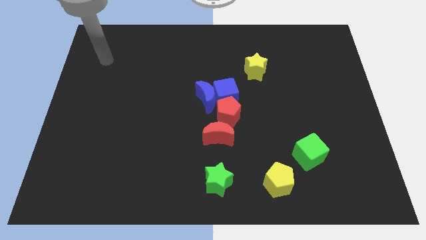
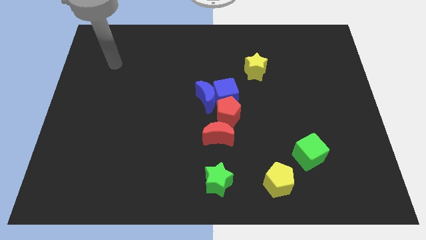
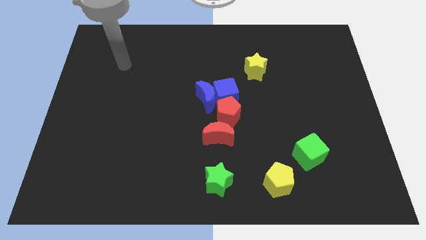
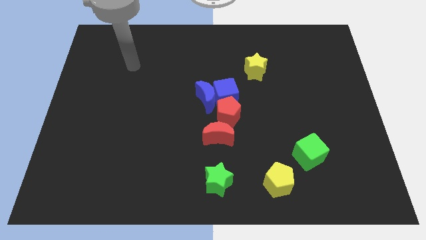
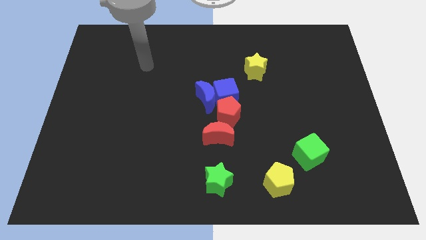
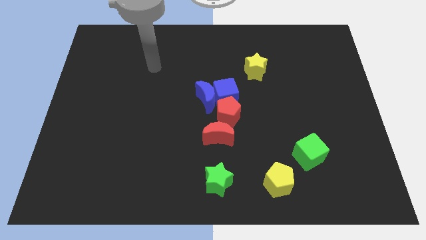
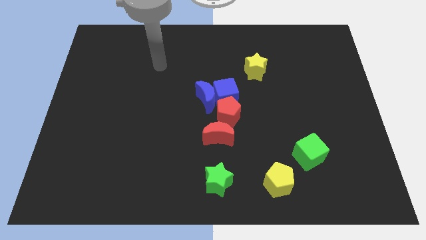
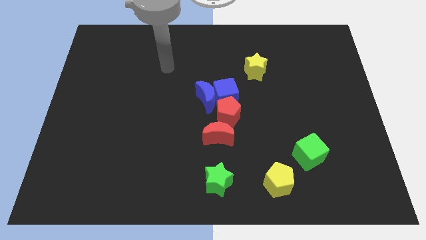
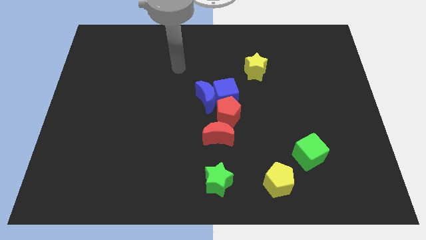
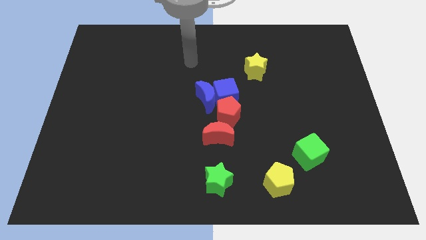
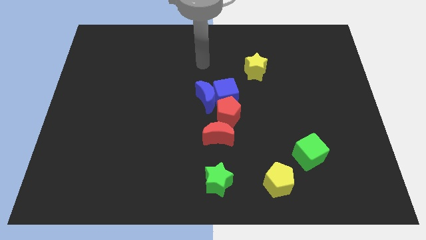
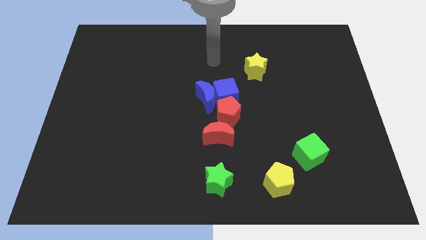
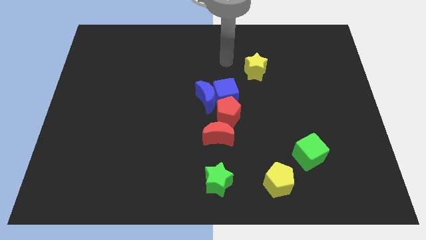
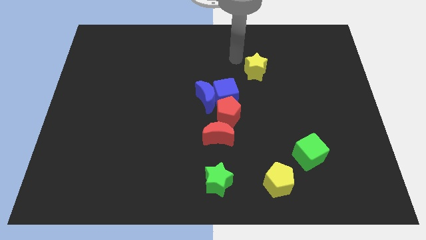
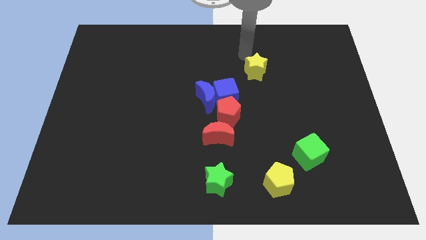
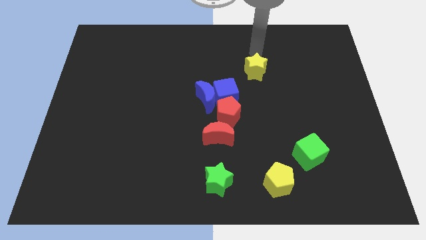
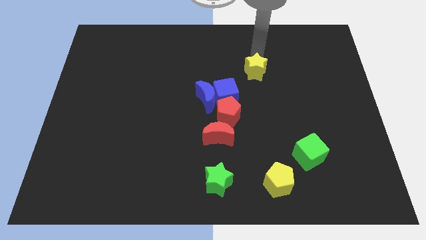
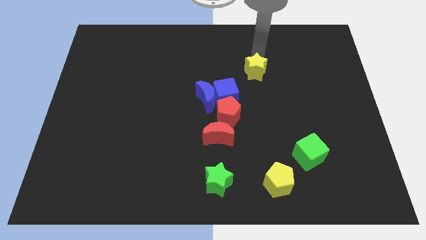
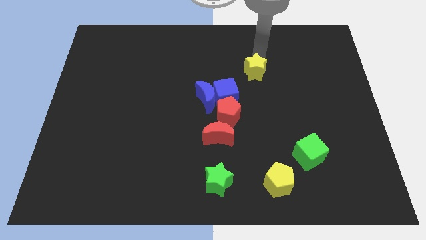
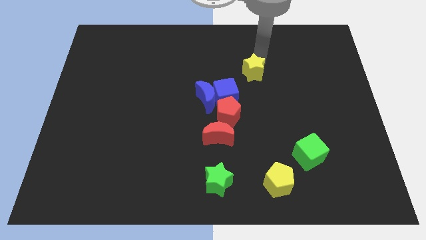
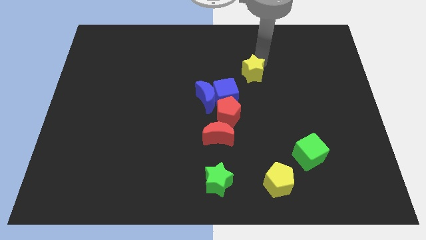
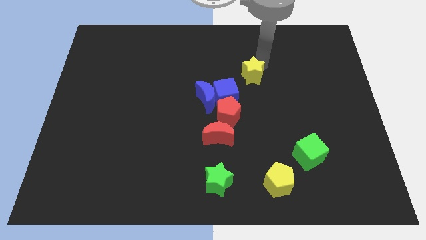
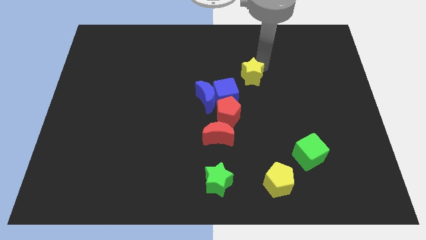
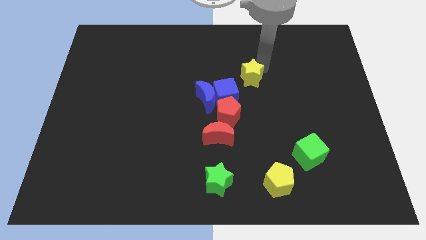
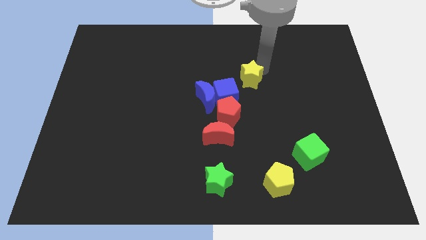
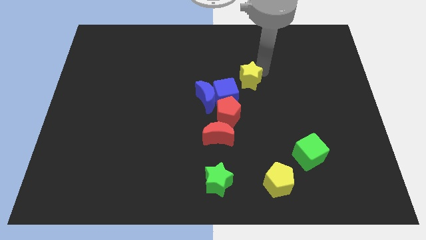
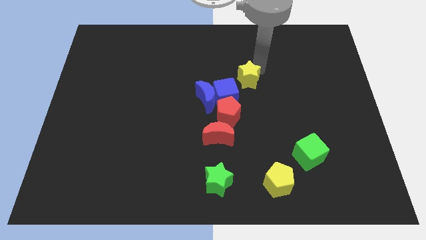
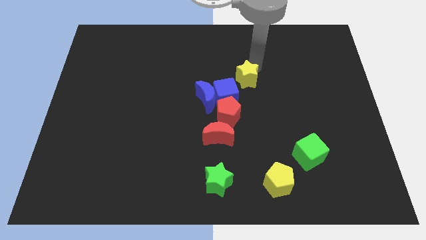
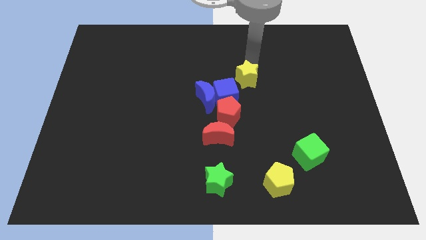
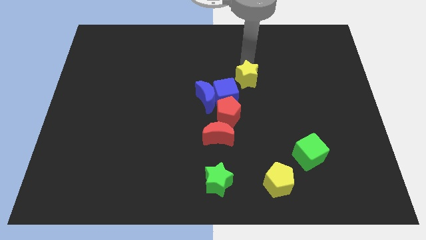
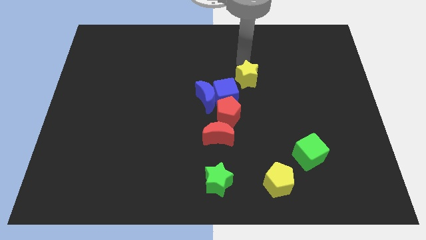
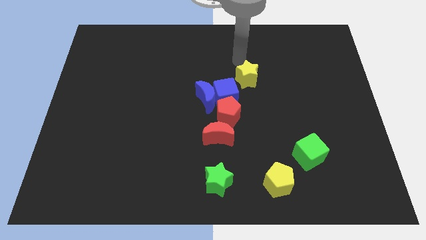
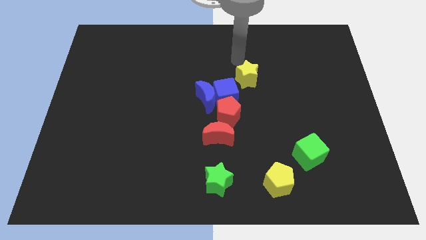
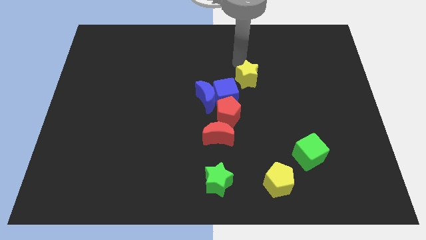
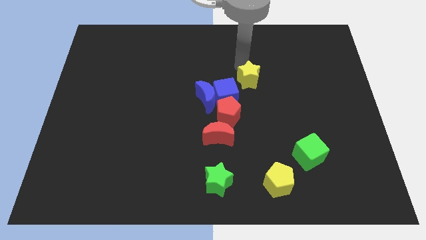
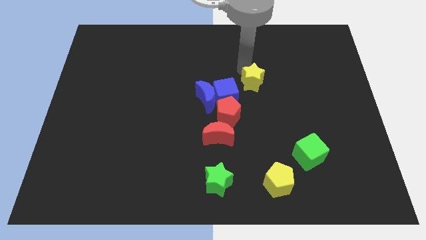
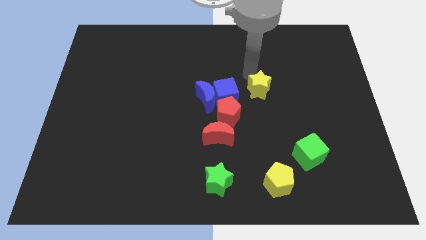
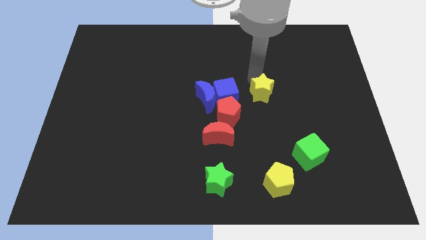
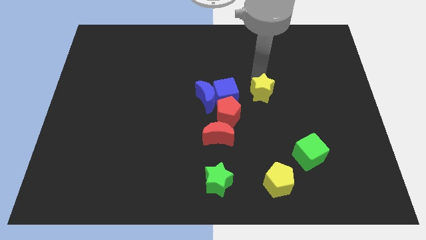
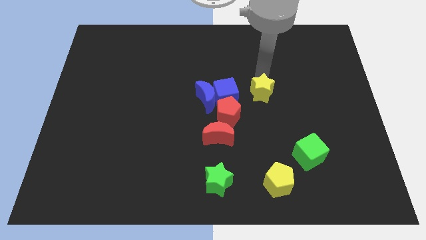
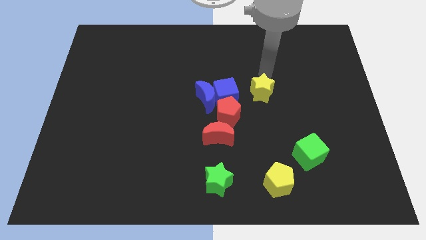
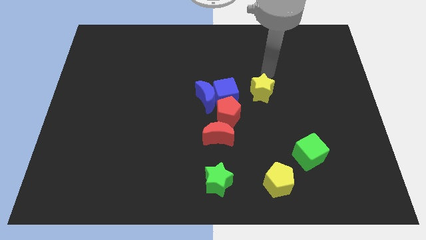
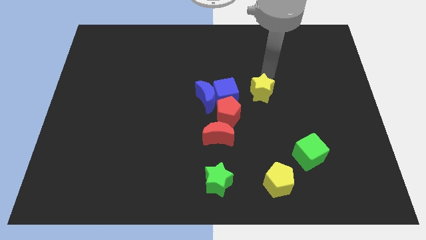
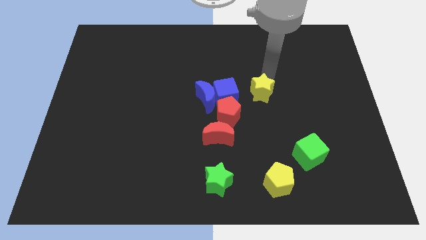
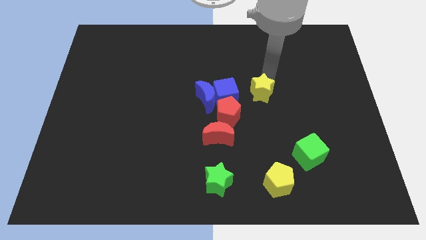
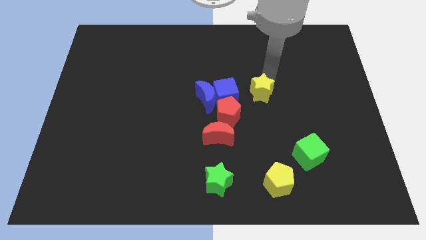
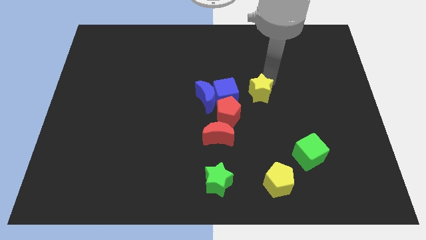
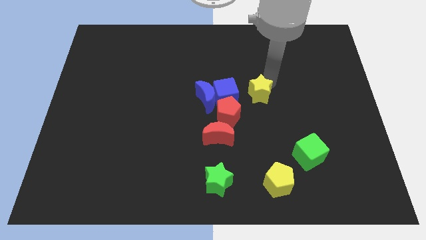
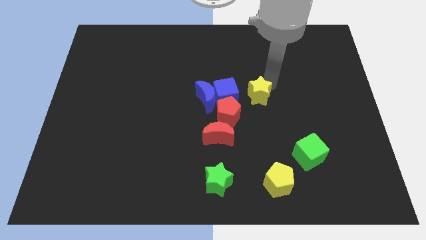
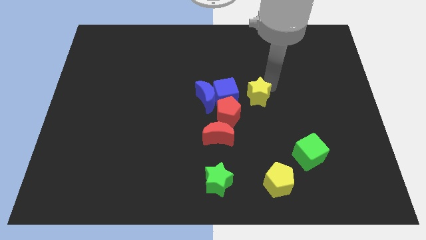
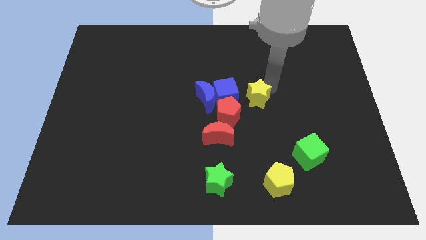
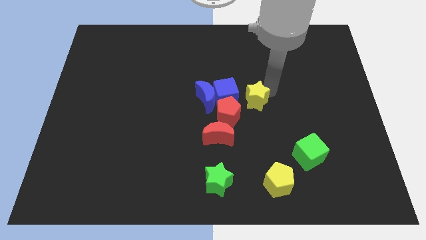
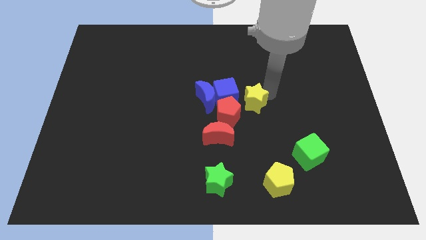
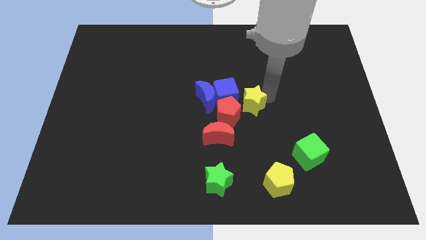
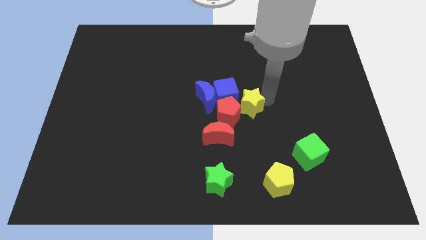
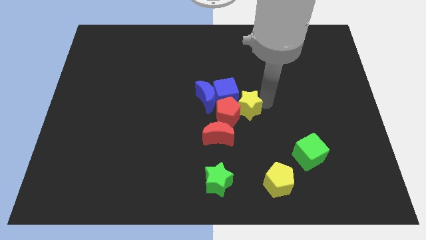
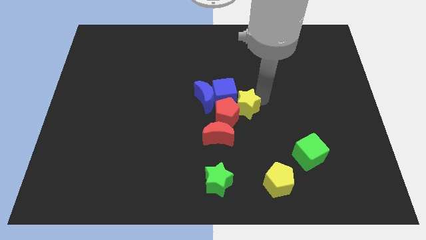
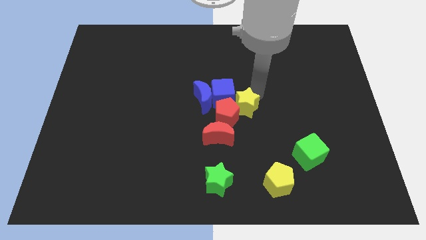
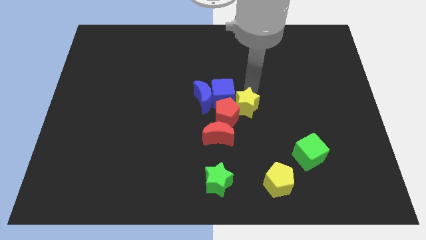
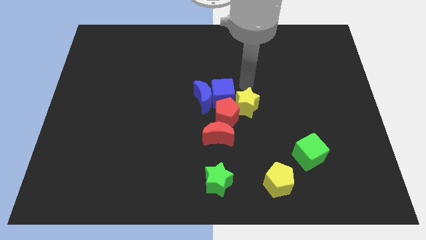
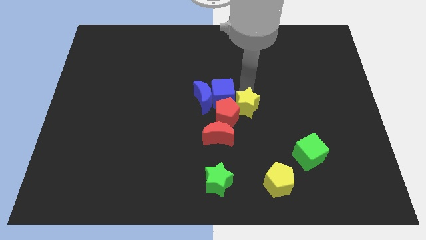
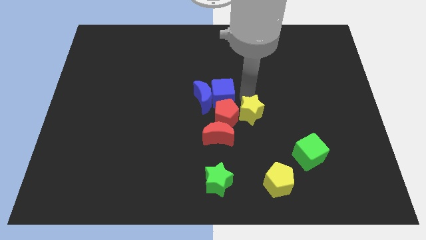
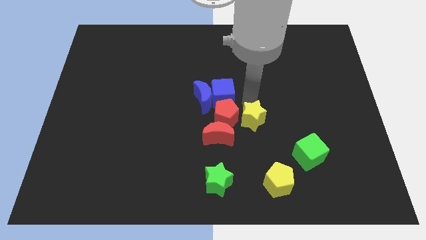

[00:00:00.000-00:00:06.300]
put the yellow star to the bottom right of the red pentagon

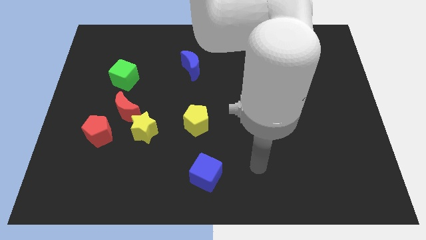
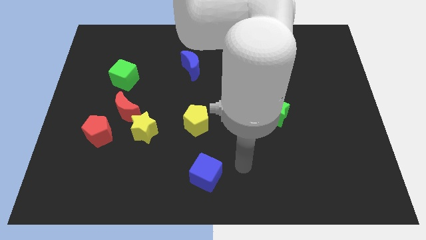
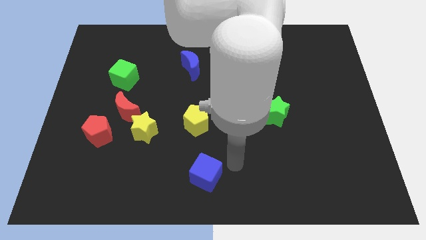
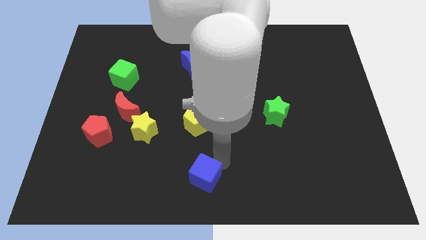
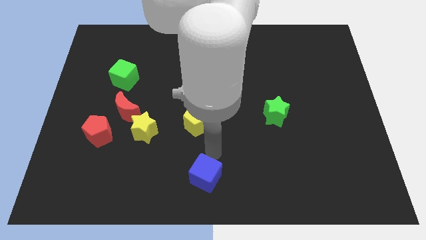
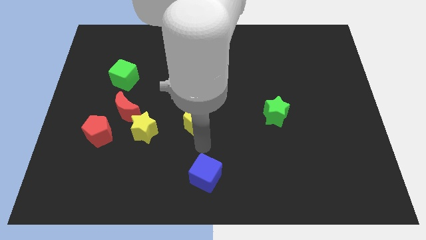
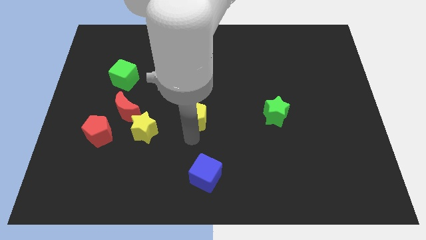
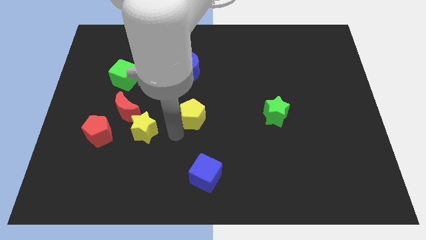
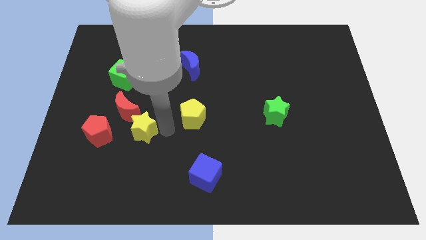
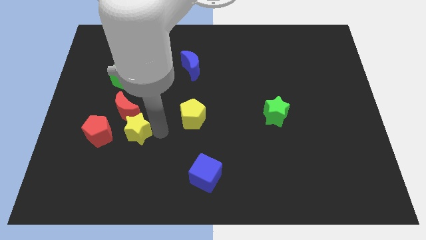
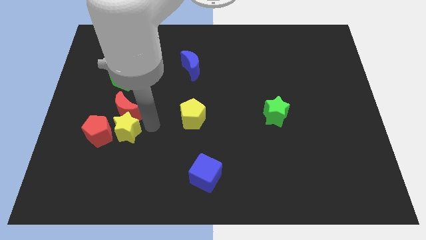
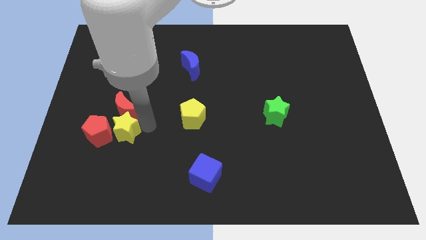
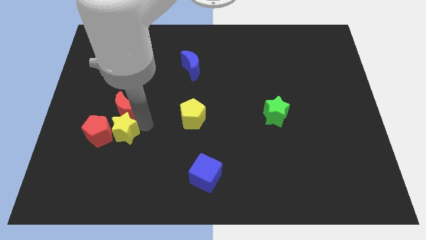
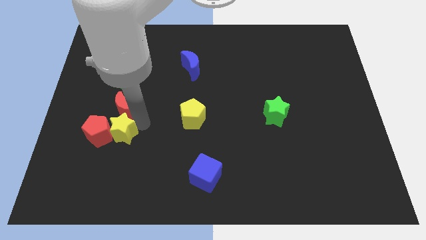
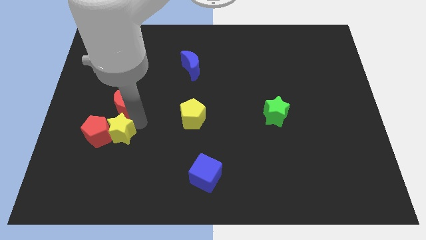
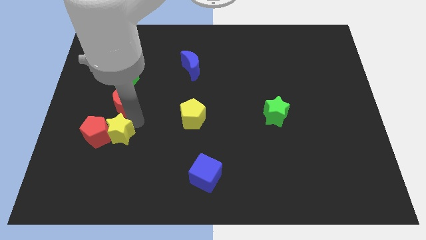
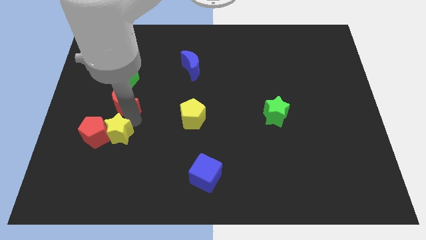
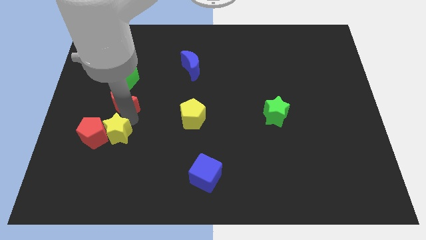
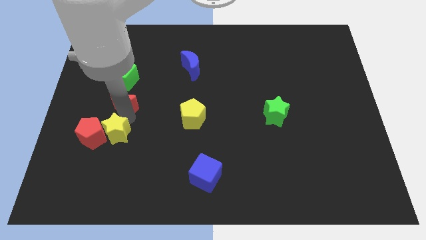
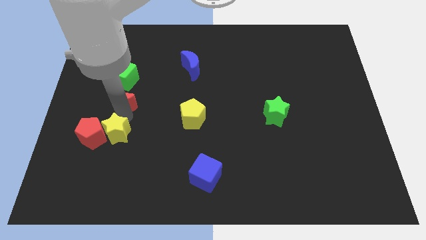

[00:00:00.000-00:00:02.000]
move the red moon to the top side of the red pentagon
